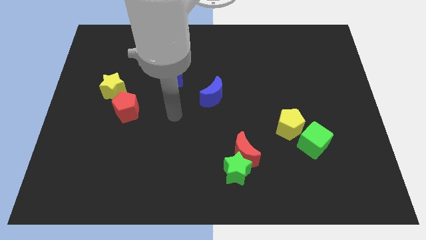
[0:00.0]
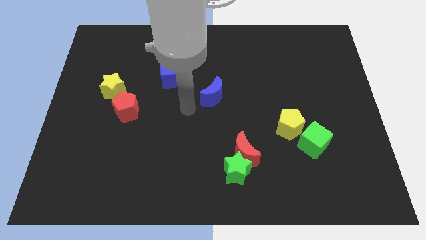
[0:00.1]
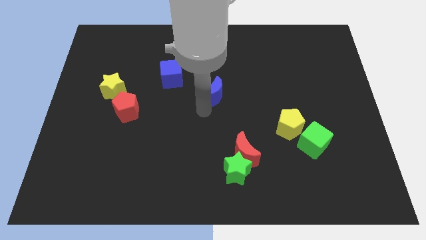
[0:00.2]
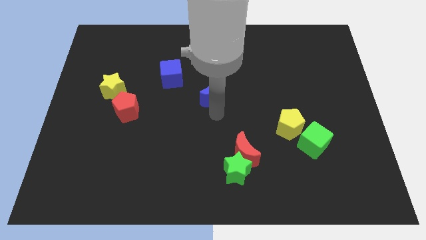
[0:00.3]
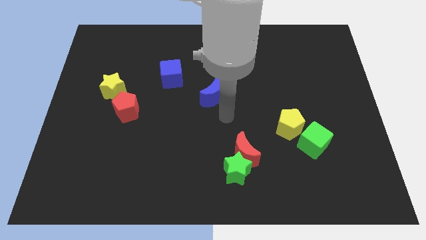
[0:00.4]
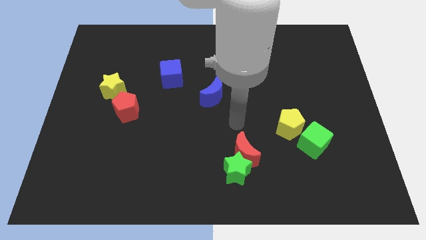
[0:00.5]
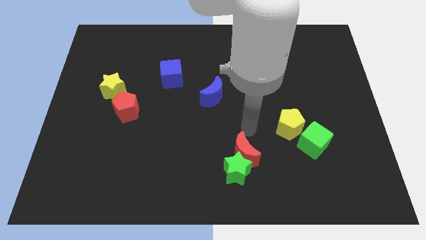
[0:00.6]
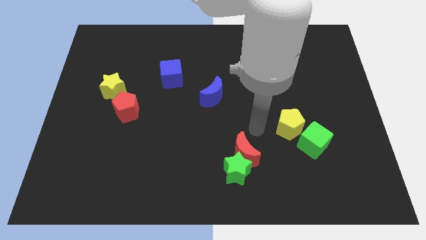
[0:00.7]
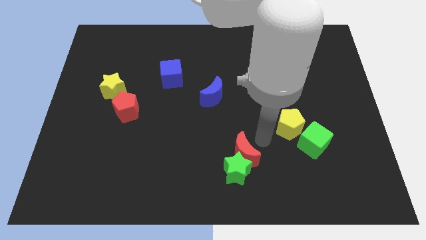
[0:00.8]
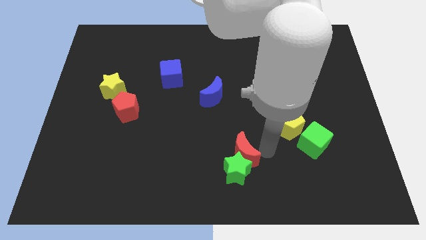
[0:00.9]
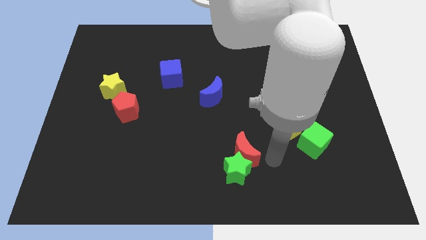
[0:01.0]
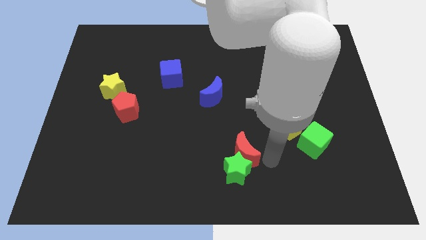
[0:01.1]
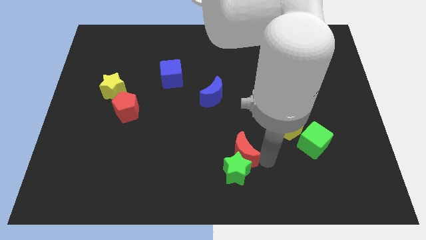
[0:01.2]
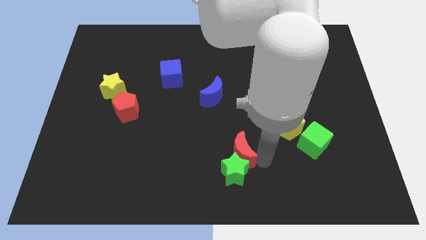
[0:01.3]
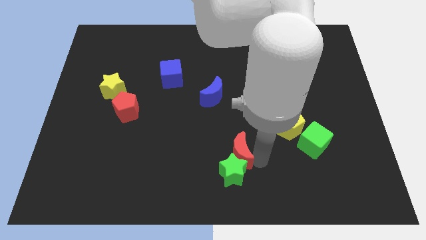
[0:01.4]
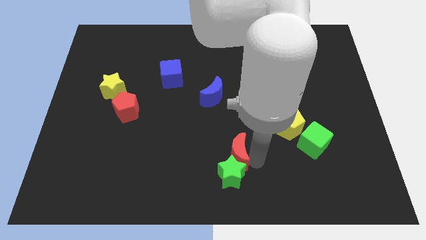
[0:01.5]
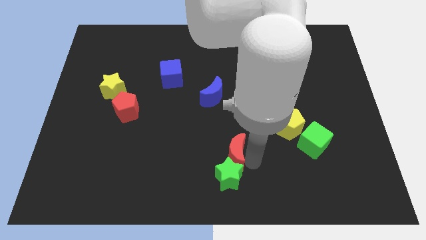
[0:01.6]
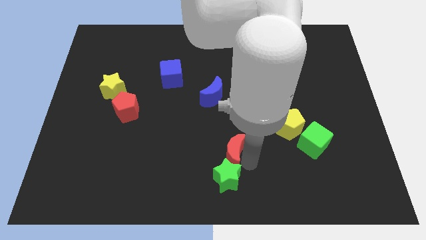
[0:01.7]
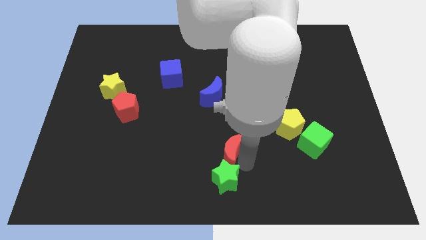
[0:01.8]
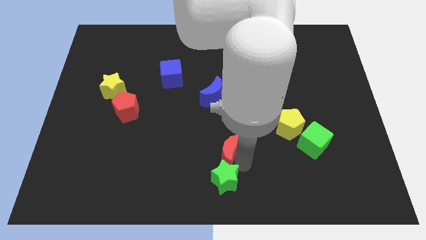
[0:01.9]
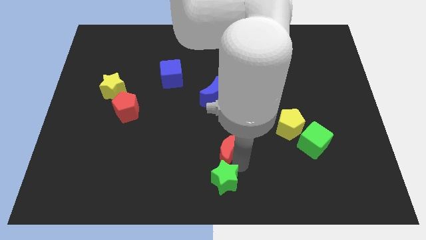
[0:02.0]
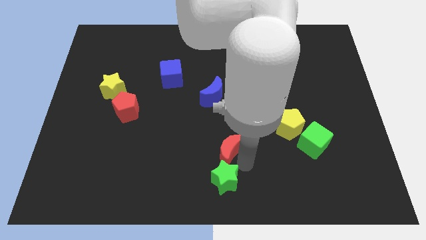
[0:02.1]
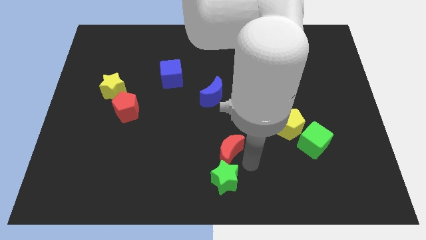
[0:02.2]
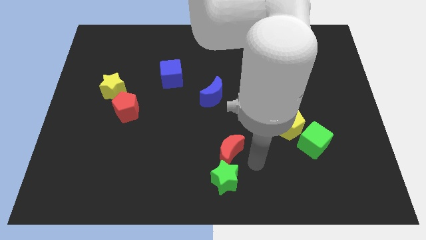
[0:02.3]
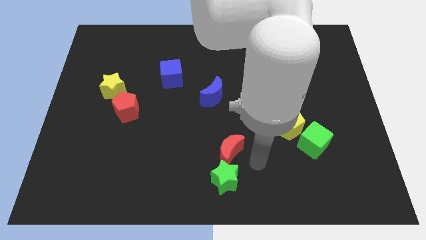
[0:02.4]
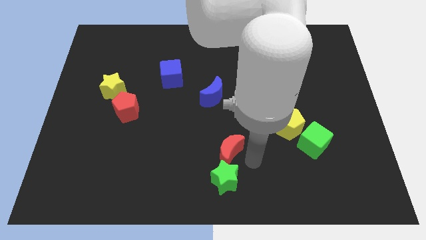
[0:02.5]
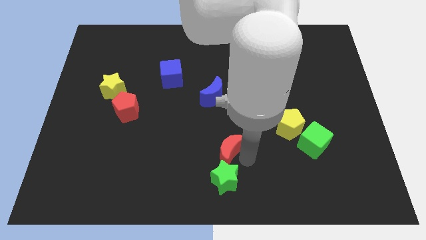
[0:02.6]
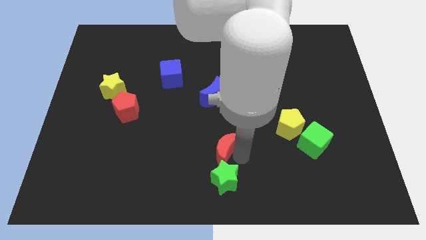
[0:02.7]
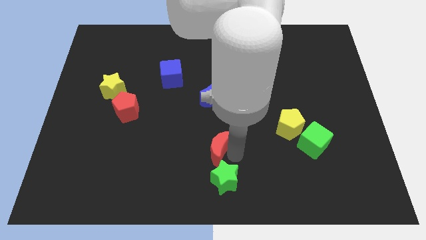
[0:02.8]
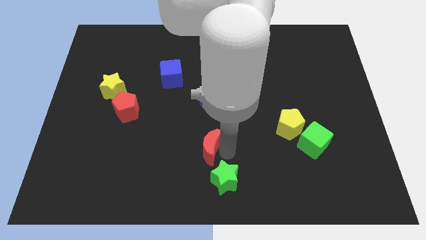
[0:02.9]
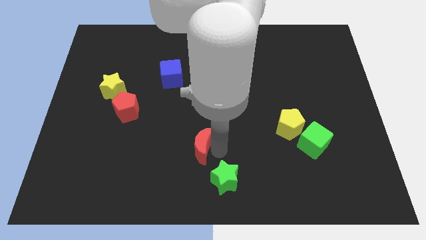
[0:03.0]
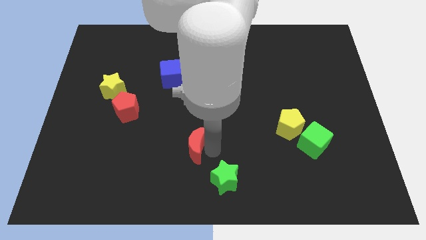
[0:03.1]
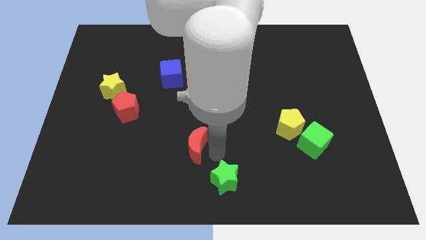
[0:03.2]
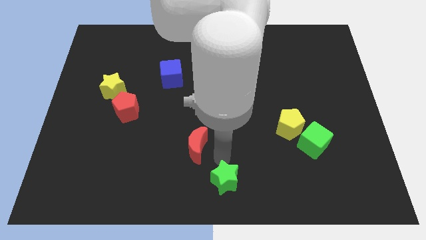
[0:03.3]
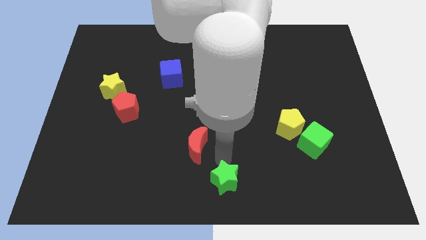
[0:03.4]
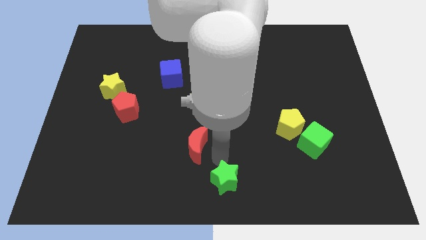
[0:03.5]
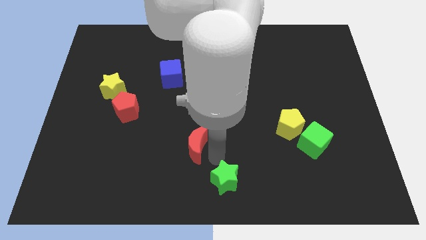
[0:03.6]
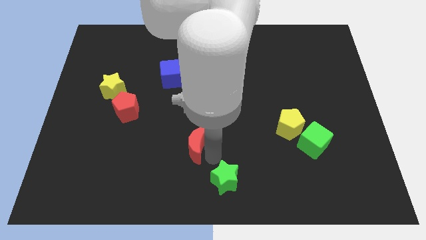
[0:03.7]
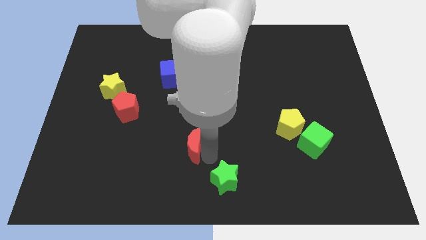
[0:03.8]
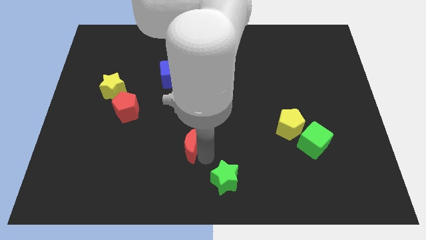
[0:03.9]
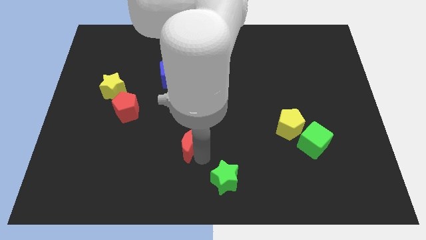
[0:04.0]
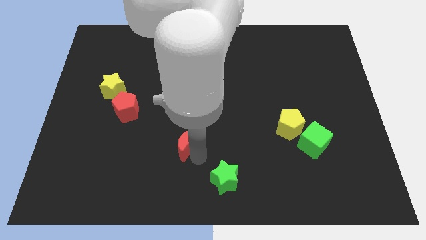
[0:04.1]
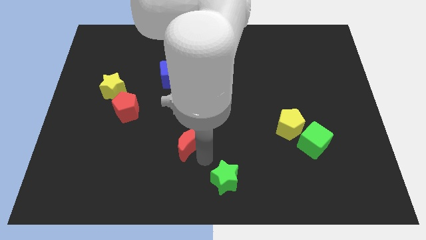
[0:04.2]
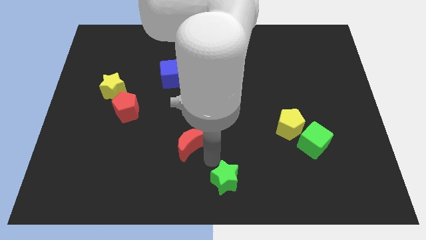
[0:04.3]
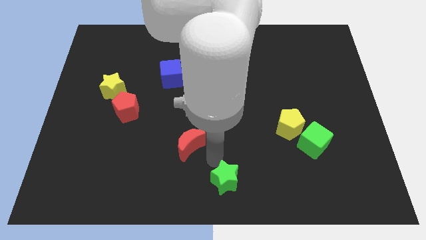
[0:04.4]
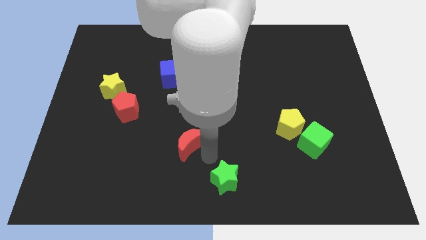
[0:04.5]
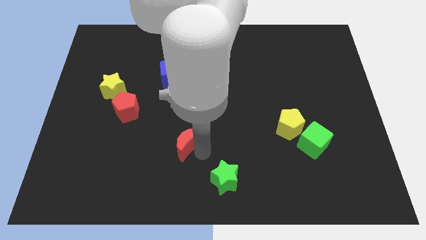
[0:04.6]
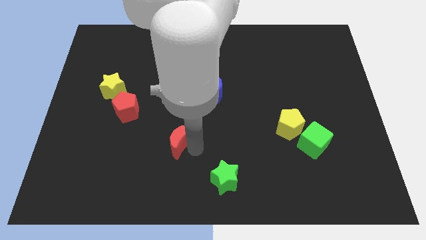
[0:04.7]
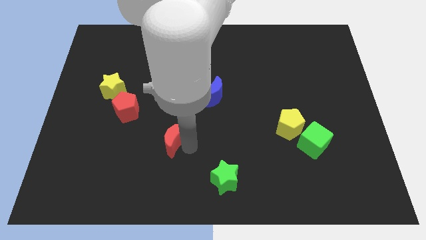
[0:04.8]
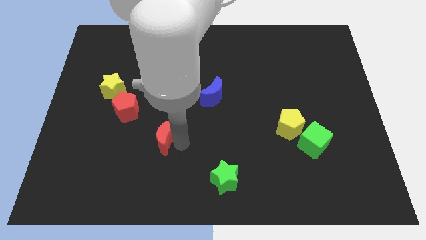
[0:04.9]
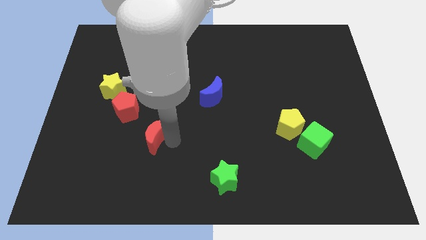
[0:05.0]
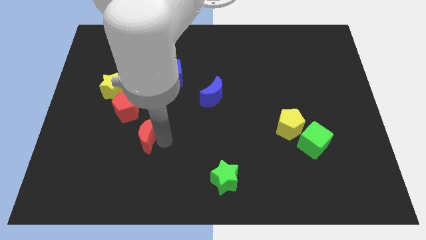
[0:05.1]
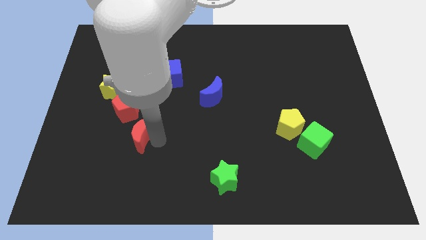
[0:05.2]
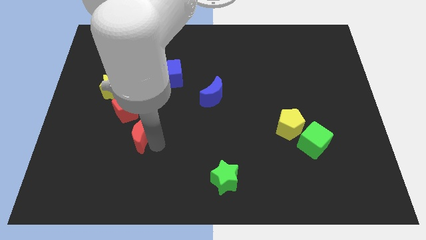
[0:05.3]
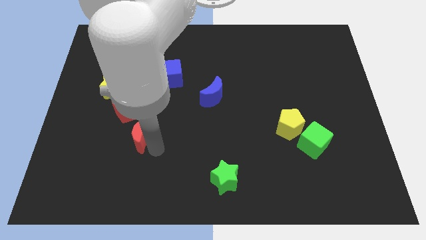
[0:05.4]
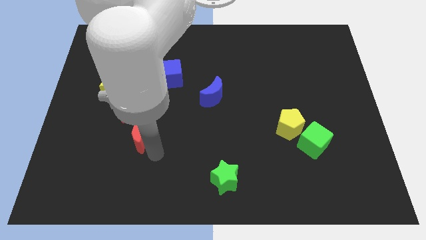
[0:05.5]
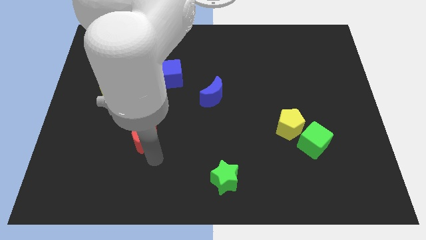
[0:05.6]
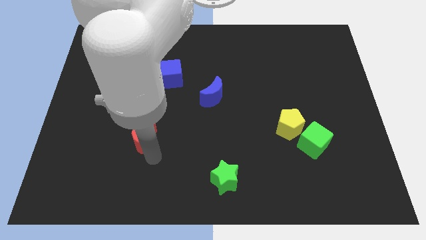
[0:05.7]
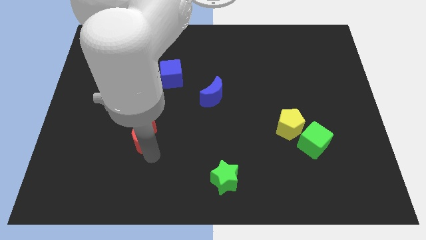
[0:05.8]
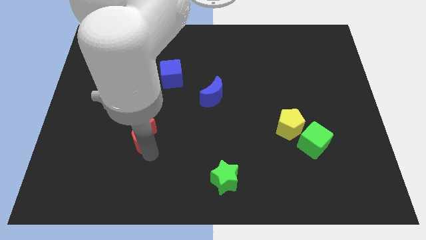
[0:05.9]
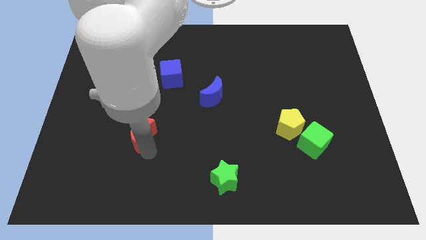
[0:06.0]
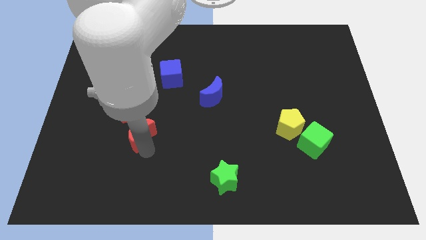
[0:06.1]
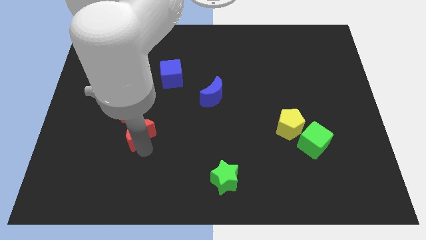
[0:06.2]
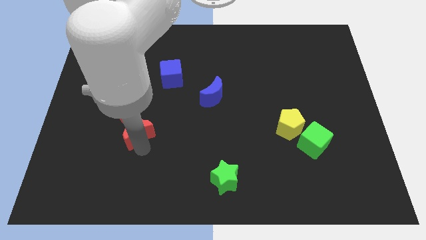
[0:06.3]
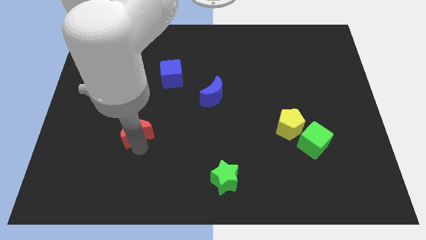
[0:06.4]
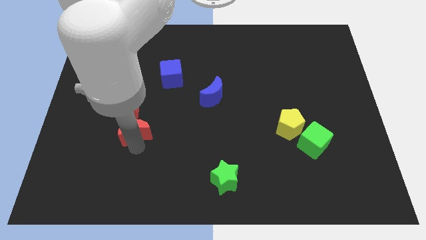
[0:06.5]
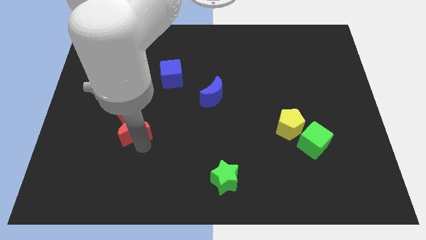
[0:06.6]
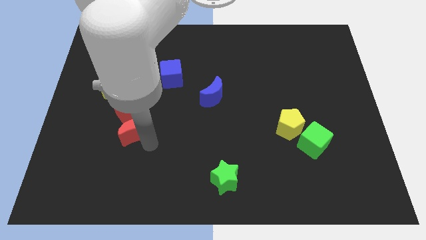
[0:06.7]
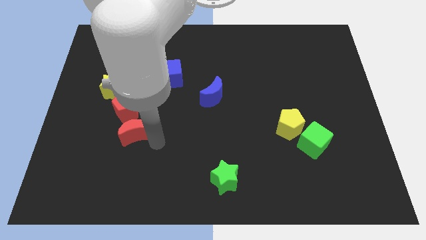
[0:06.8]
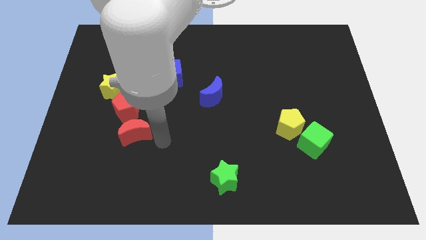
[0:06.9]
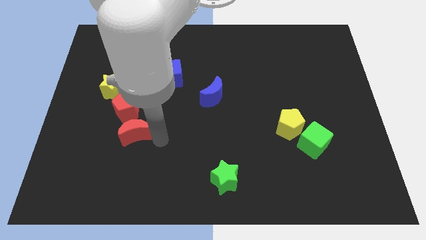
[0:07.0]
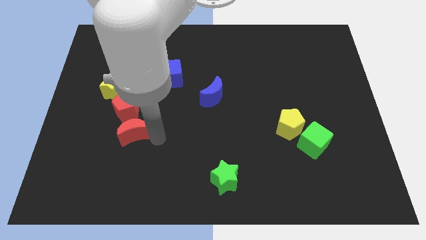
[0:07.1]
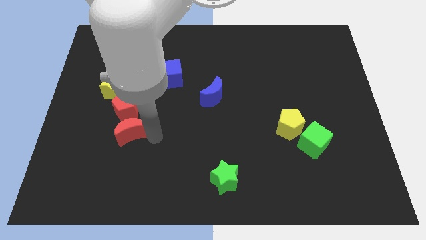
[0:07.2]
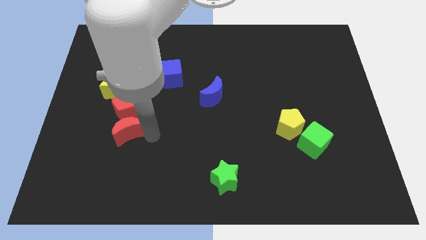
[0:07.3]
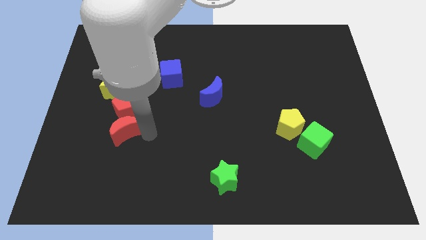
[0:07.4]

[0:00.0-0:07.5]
slide the red moon to the bottom side of the yellow star
